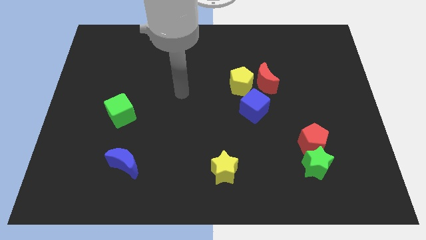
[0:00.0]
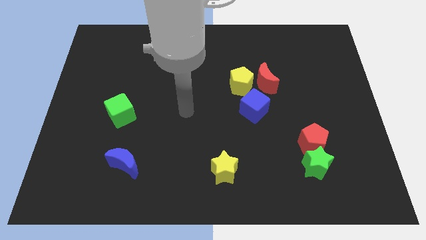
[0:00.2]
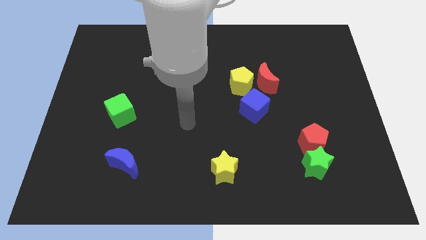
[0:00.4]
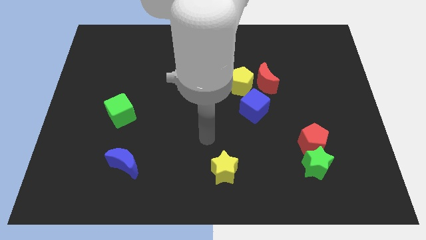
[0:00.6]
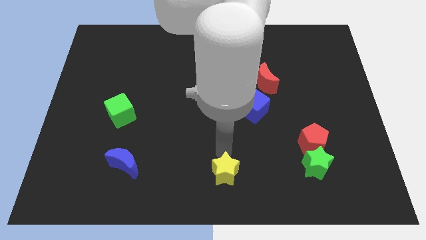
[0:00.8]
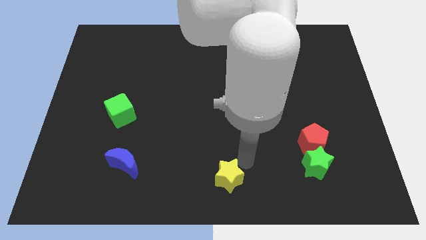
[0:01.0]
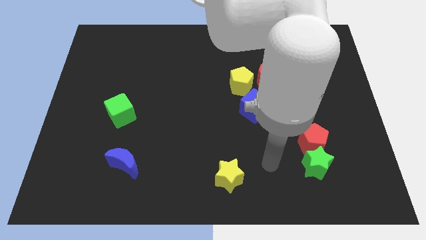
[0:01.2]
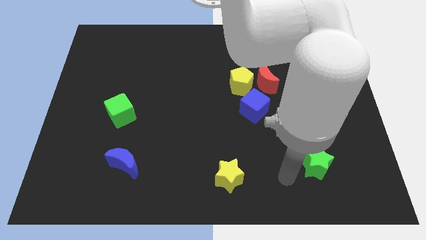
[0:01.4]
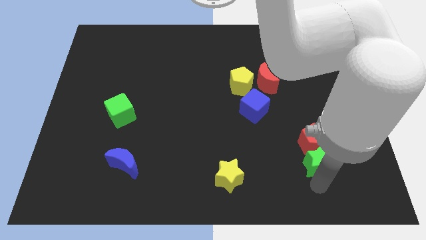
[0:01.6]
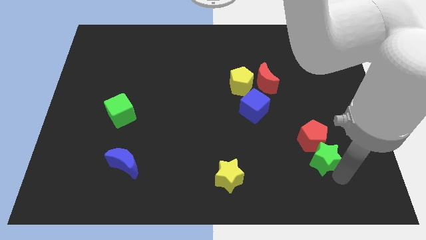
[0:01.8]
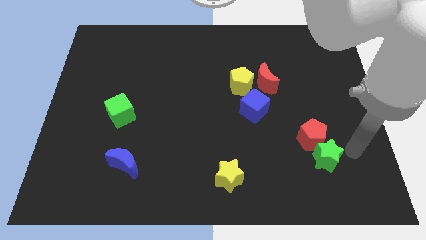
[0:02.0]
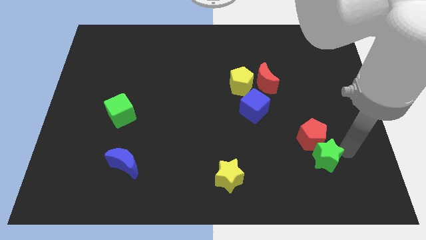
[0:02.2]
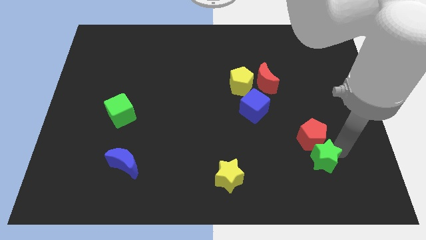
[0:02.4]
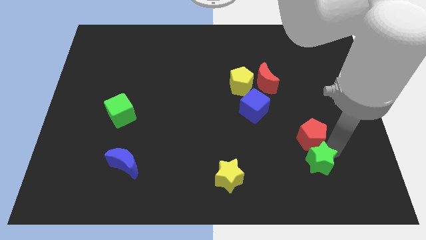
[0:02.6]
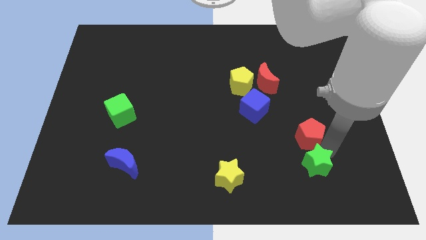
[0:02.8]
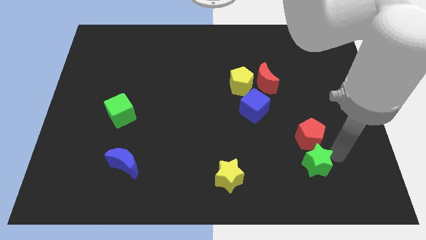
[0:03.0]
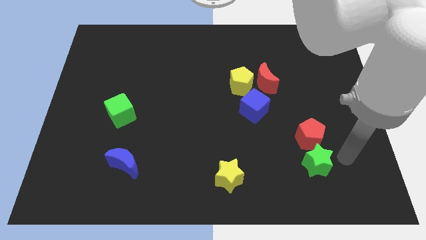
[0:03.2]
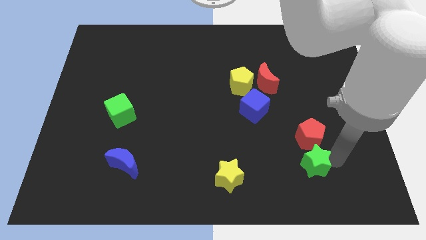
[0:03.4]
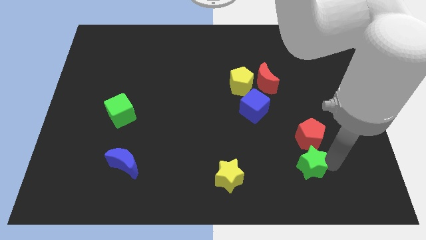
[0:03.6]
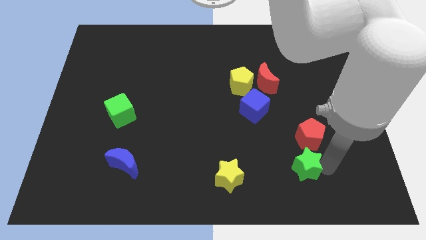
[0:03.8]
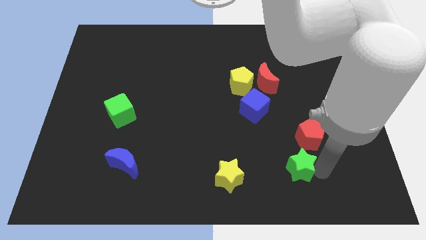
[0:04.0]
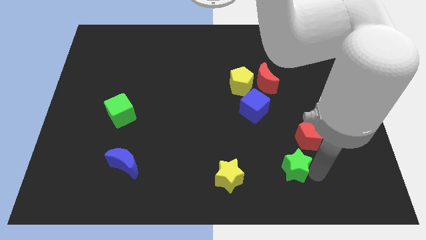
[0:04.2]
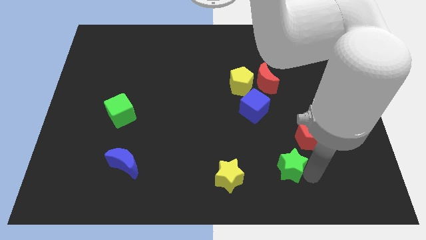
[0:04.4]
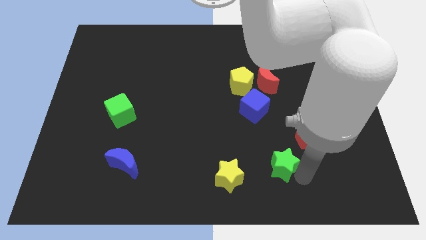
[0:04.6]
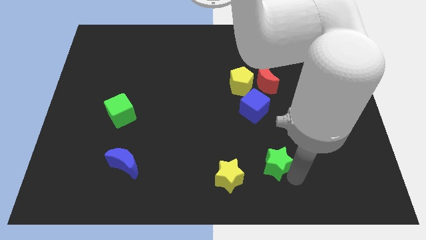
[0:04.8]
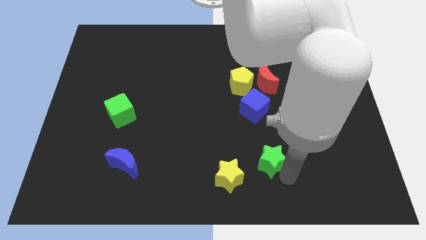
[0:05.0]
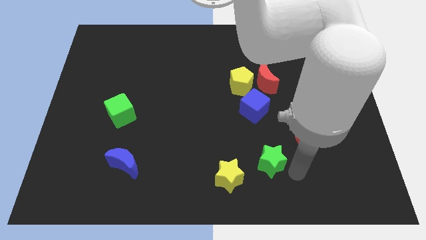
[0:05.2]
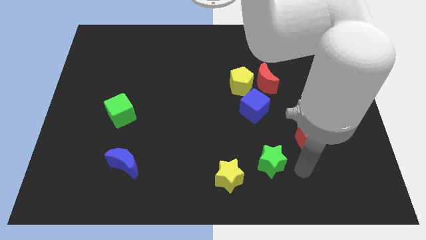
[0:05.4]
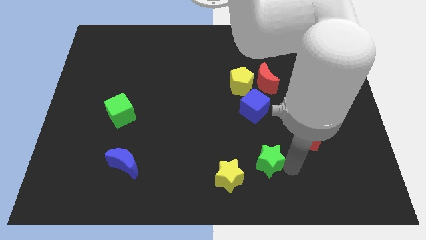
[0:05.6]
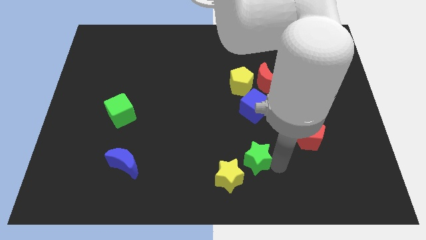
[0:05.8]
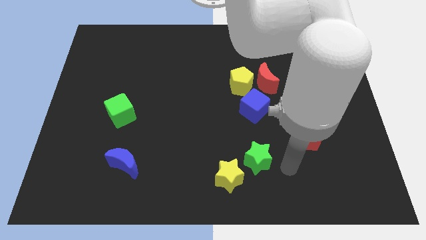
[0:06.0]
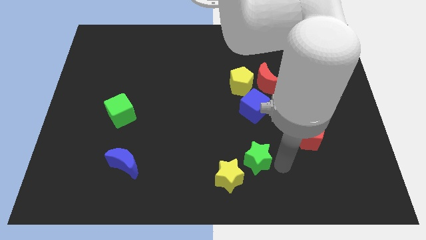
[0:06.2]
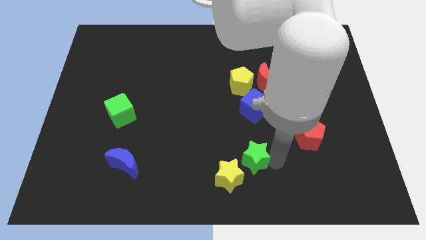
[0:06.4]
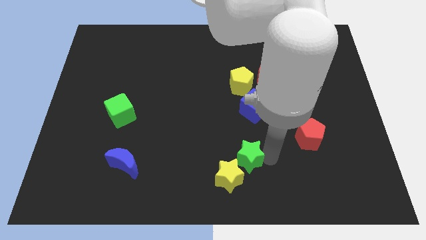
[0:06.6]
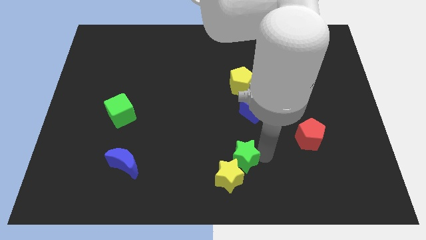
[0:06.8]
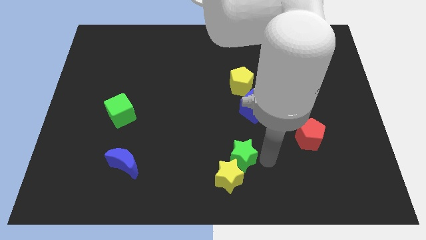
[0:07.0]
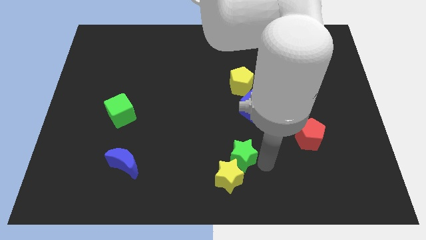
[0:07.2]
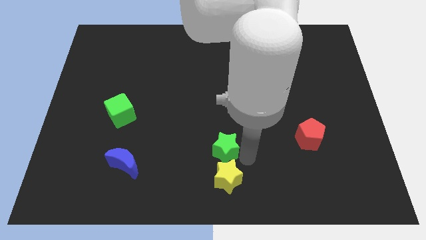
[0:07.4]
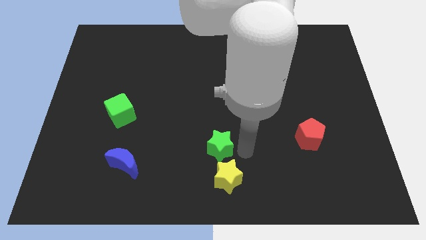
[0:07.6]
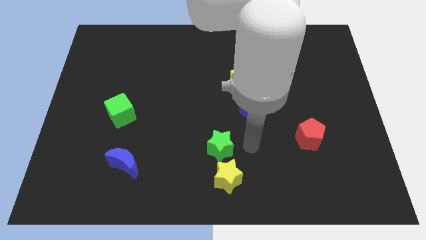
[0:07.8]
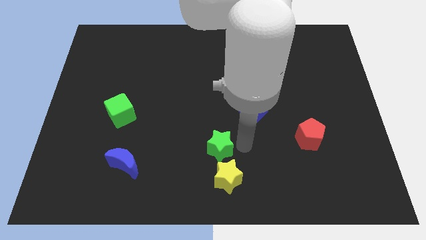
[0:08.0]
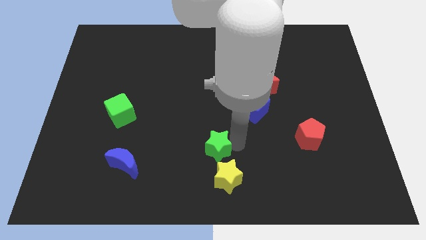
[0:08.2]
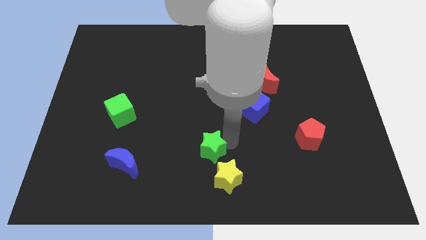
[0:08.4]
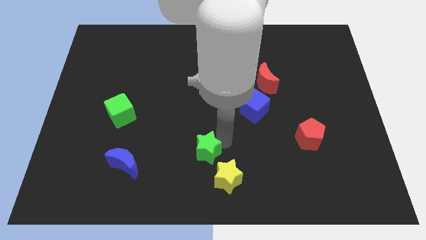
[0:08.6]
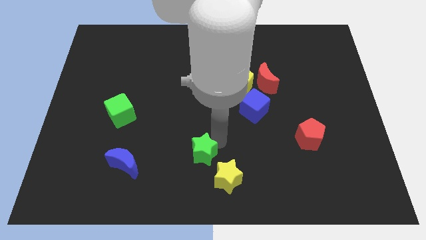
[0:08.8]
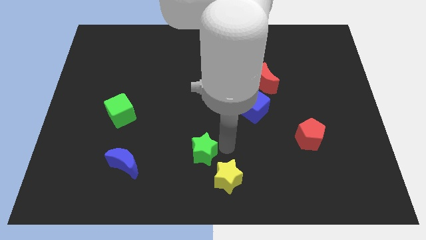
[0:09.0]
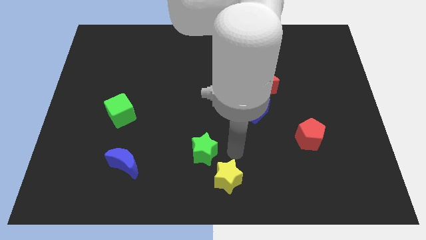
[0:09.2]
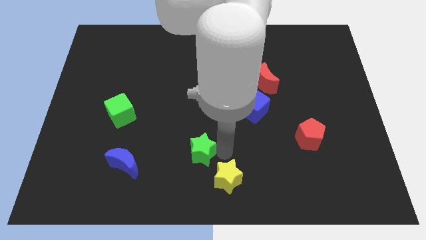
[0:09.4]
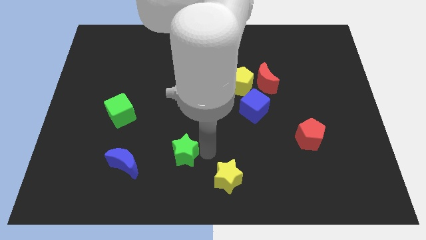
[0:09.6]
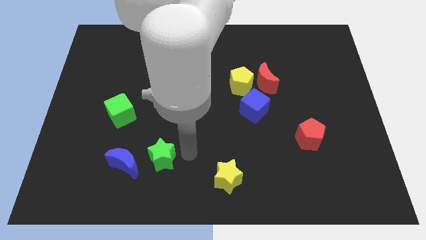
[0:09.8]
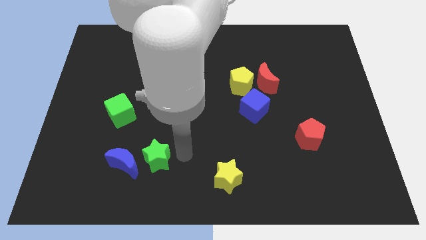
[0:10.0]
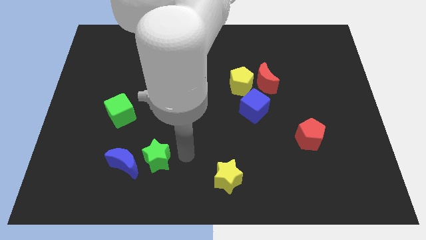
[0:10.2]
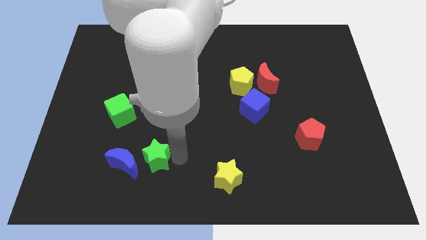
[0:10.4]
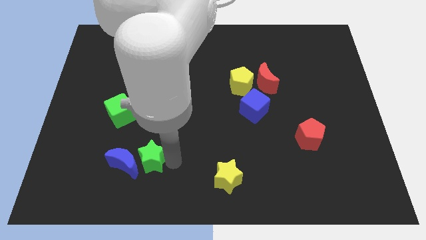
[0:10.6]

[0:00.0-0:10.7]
slide the green star to the blue moon

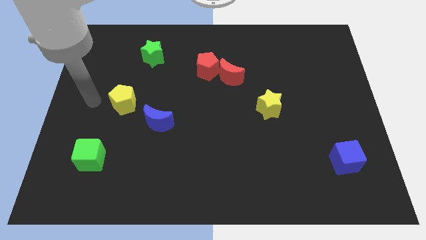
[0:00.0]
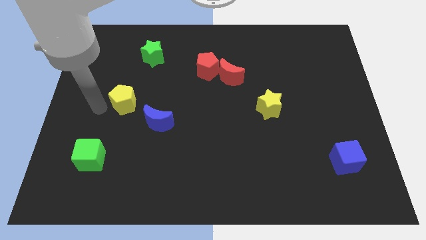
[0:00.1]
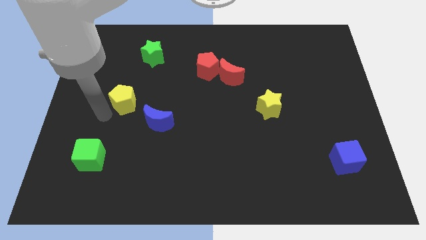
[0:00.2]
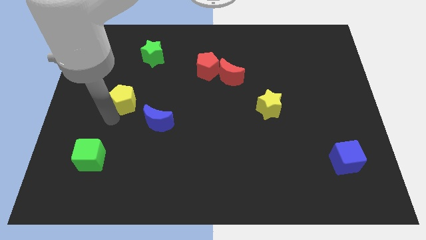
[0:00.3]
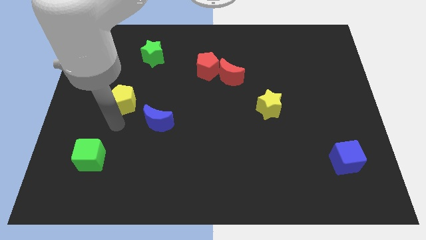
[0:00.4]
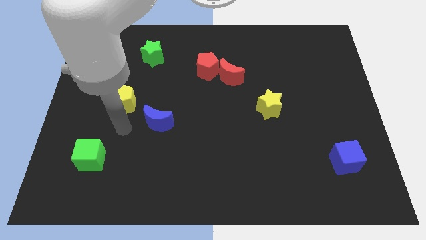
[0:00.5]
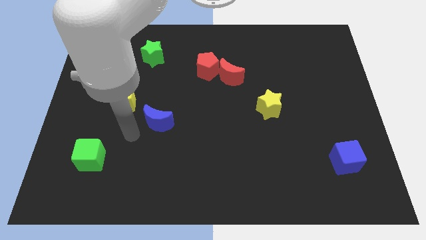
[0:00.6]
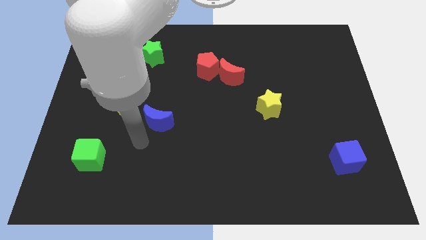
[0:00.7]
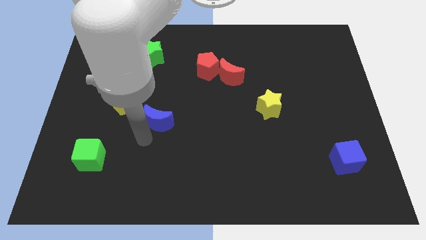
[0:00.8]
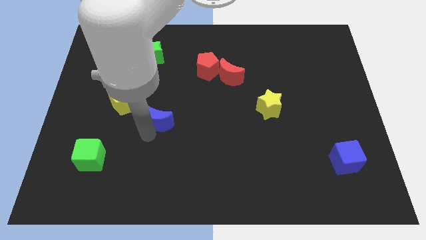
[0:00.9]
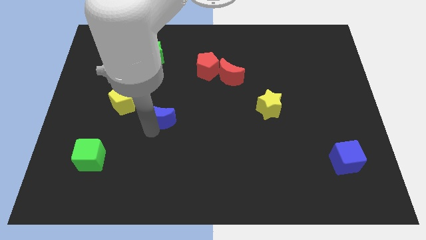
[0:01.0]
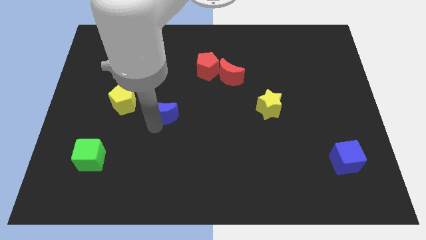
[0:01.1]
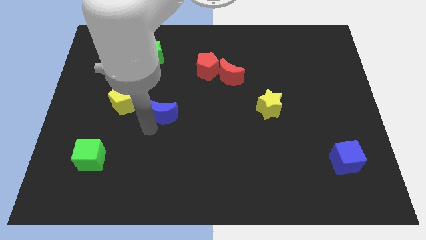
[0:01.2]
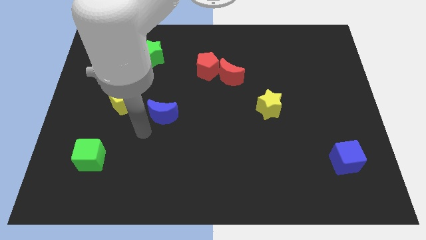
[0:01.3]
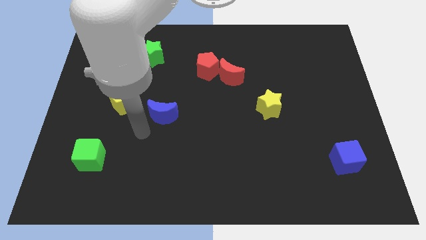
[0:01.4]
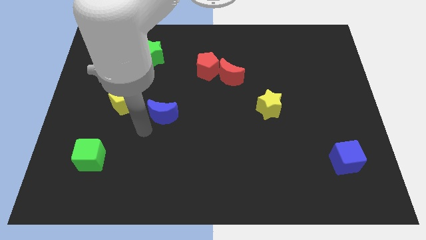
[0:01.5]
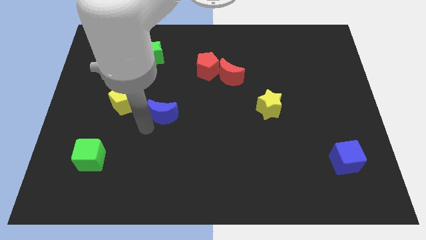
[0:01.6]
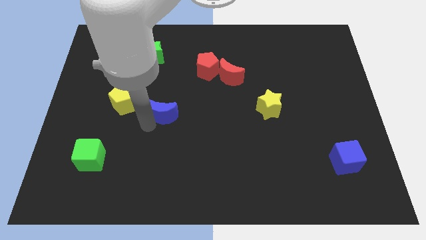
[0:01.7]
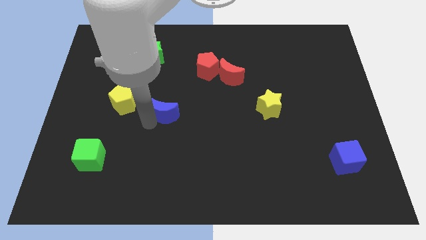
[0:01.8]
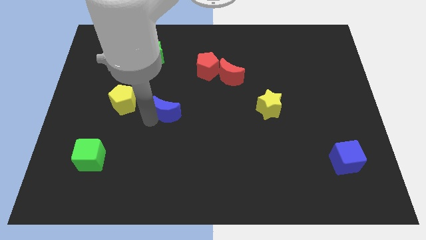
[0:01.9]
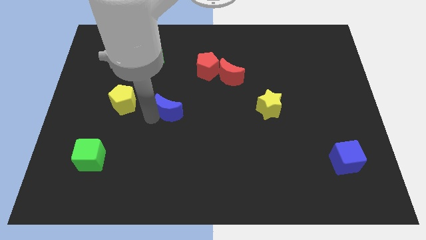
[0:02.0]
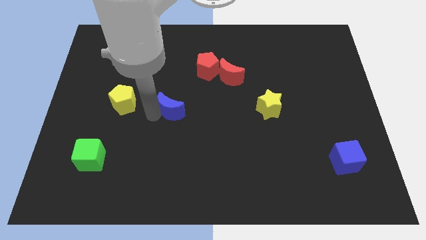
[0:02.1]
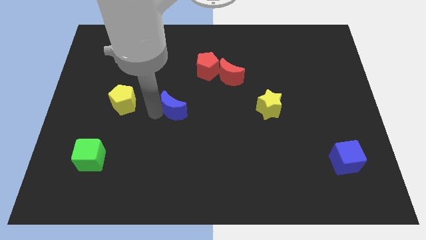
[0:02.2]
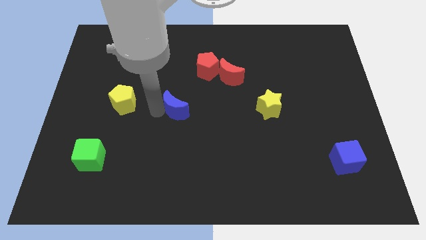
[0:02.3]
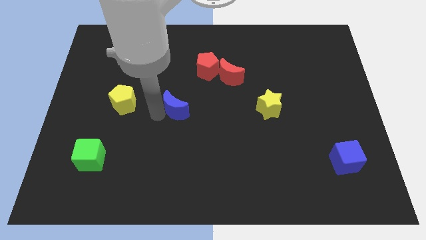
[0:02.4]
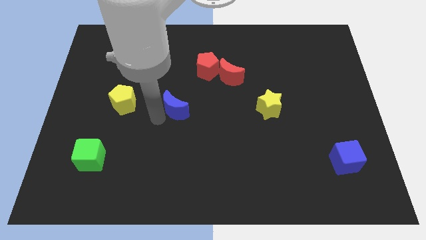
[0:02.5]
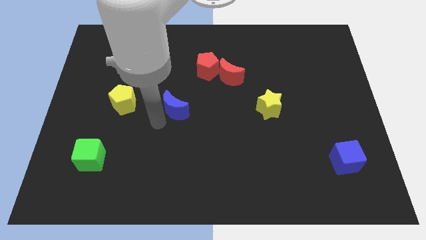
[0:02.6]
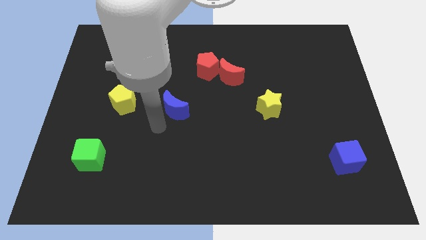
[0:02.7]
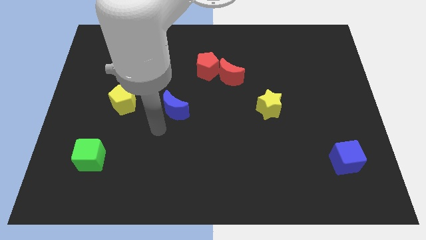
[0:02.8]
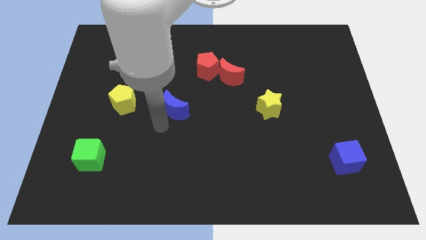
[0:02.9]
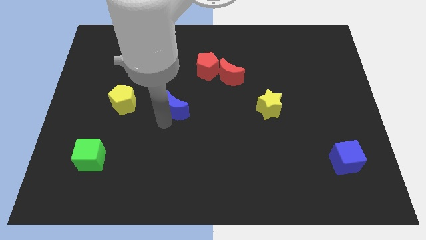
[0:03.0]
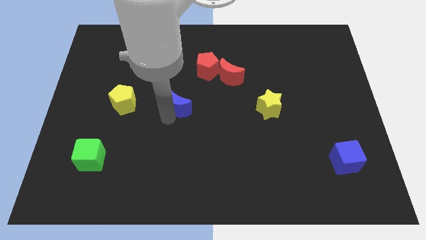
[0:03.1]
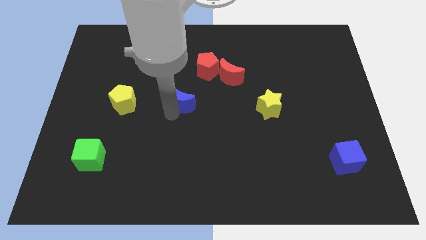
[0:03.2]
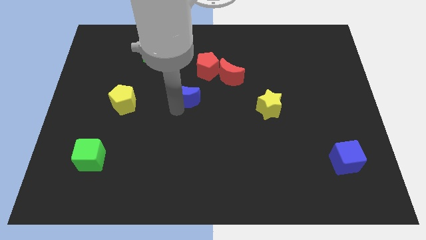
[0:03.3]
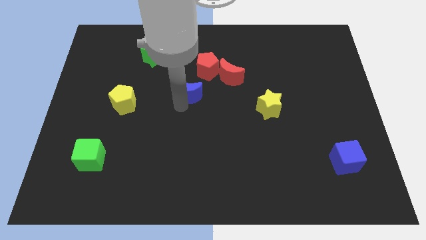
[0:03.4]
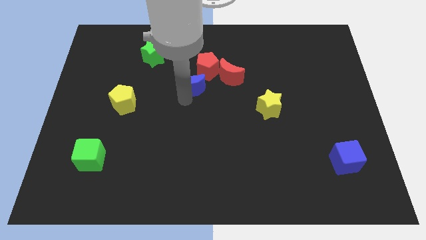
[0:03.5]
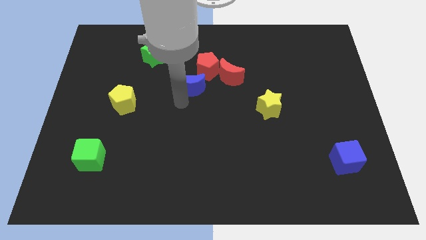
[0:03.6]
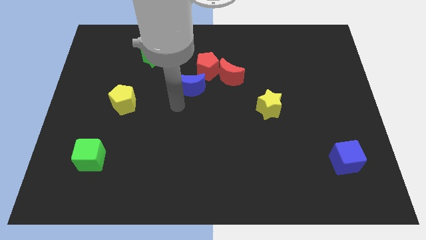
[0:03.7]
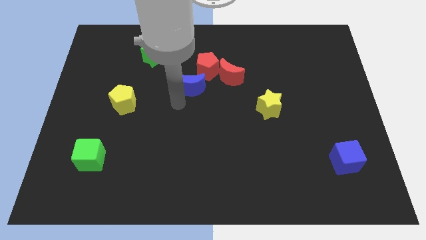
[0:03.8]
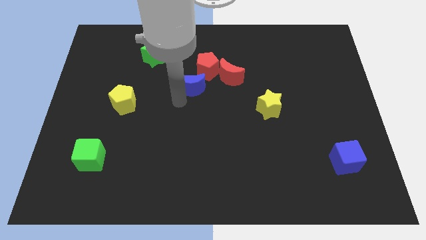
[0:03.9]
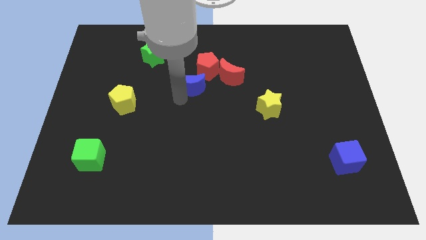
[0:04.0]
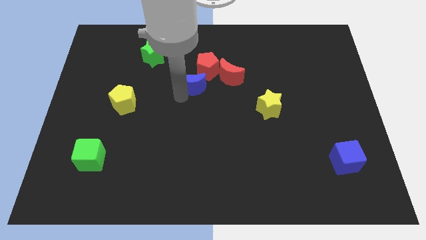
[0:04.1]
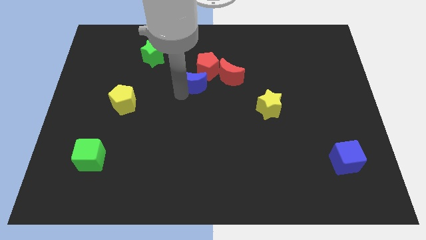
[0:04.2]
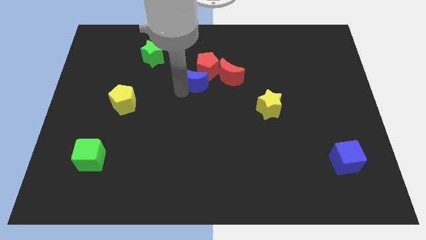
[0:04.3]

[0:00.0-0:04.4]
slide the blue moon close to the red pentagon
